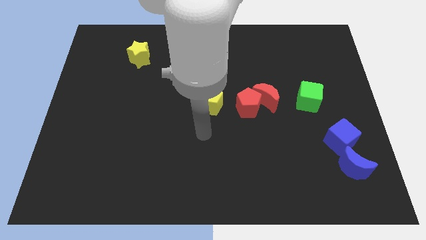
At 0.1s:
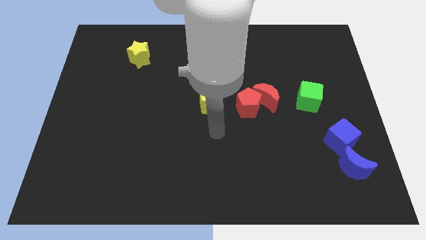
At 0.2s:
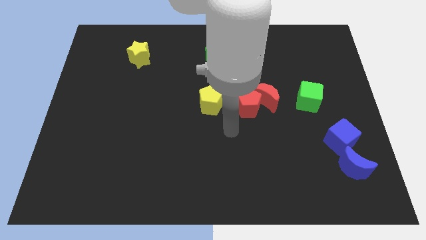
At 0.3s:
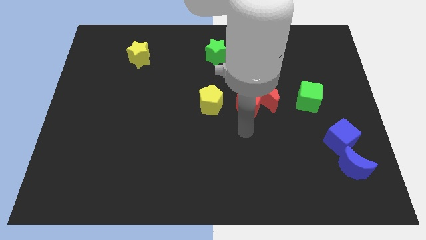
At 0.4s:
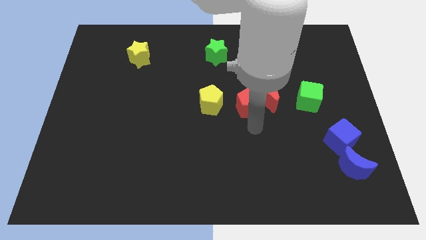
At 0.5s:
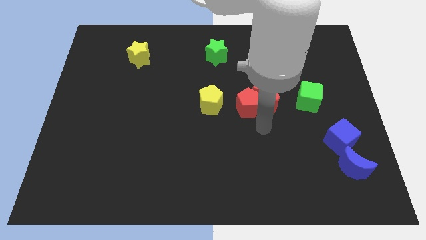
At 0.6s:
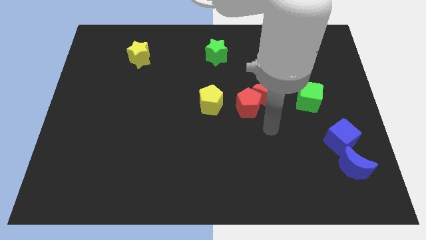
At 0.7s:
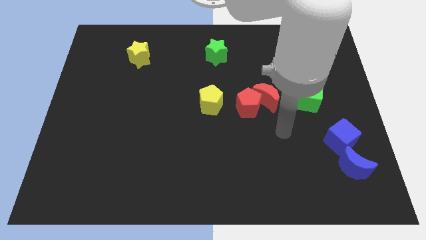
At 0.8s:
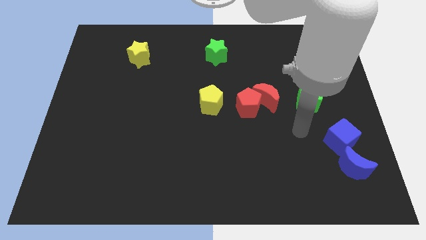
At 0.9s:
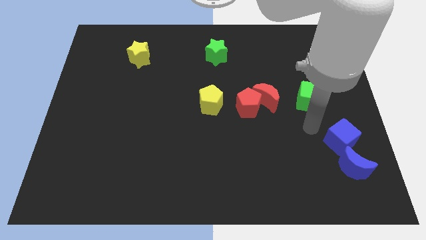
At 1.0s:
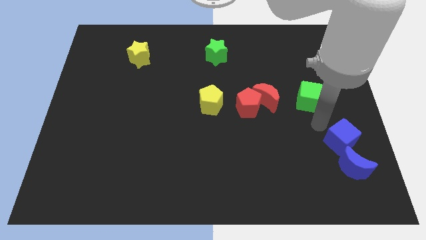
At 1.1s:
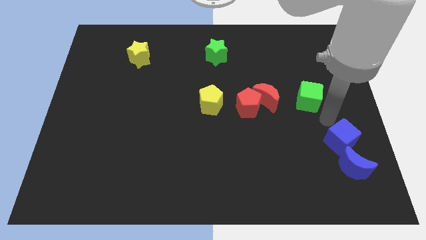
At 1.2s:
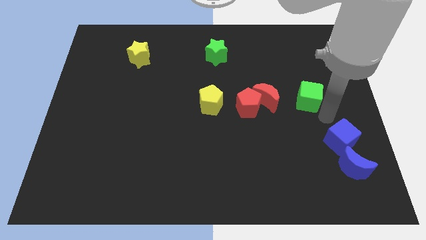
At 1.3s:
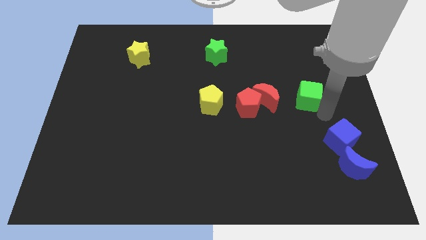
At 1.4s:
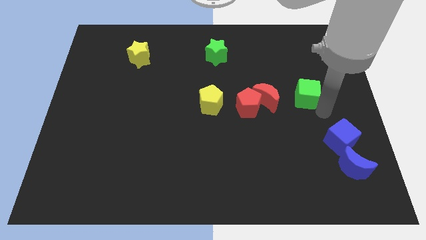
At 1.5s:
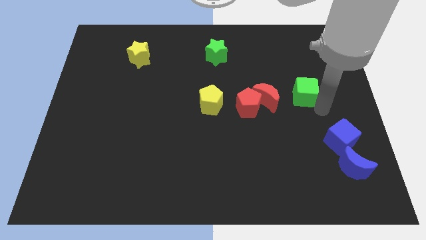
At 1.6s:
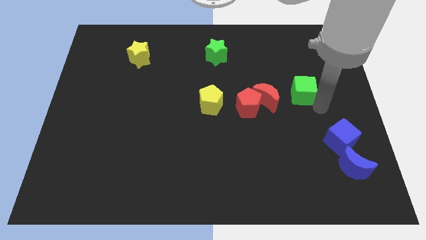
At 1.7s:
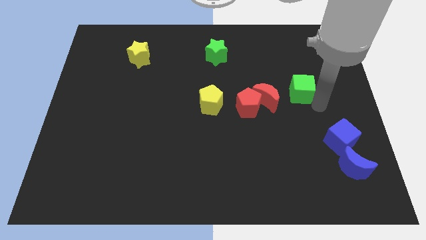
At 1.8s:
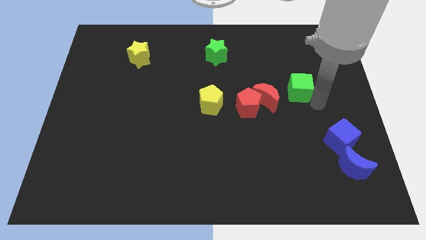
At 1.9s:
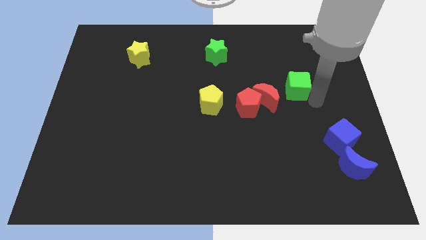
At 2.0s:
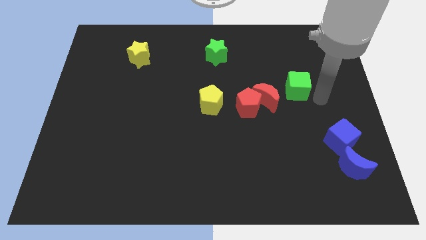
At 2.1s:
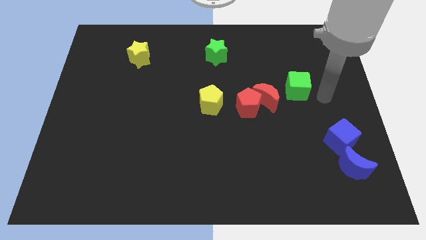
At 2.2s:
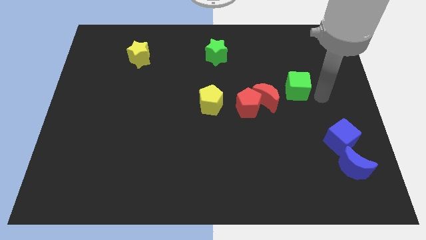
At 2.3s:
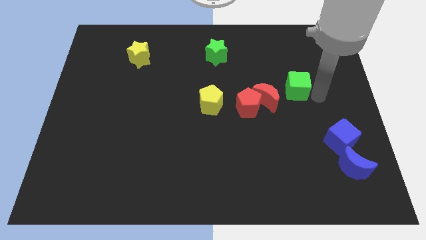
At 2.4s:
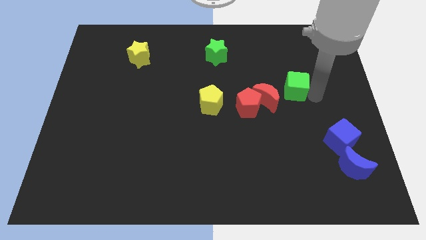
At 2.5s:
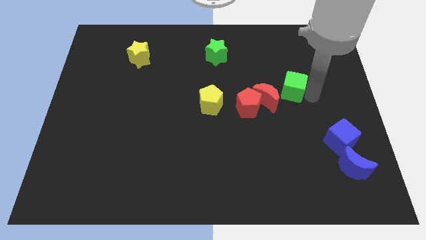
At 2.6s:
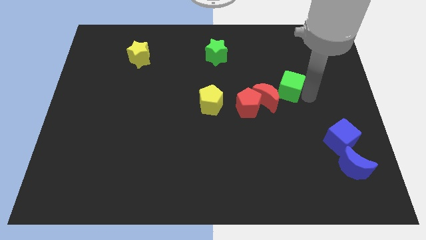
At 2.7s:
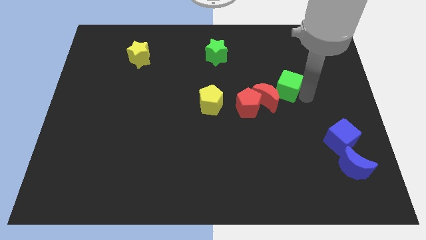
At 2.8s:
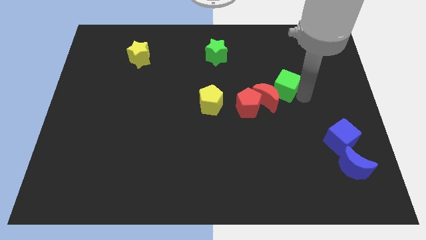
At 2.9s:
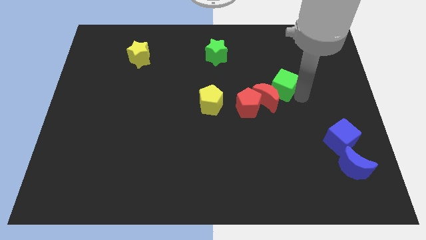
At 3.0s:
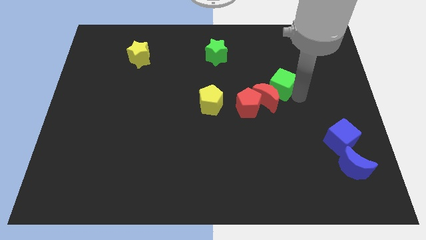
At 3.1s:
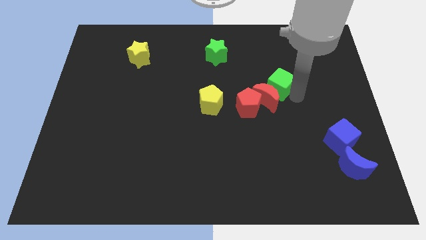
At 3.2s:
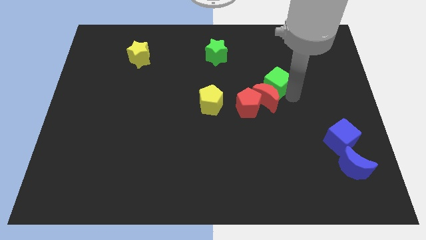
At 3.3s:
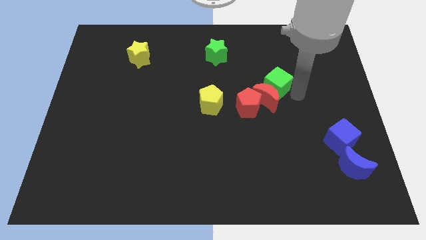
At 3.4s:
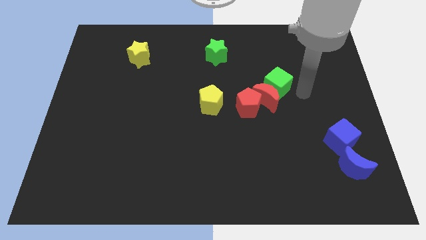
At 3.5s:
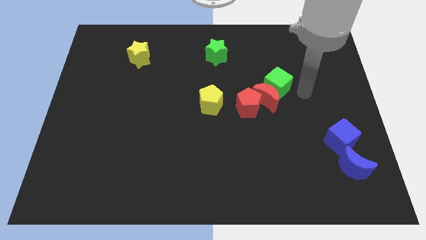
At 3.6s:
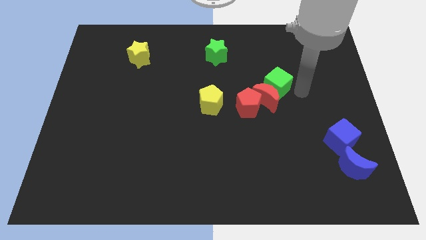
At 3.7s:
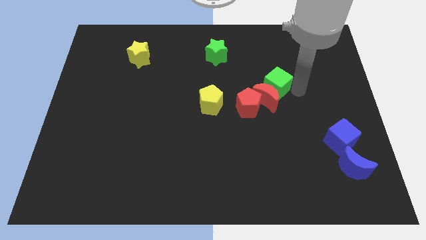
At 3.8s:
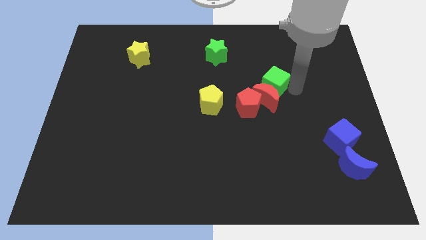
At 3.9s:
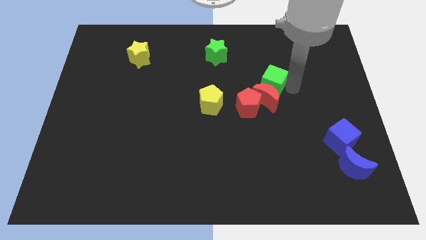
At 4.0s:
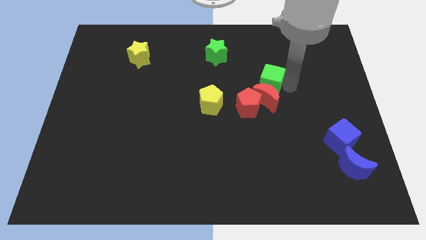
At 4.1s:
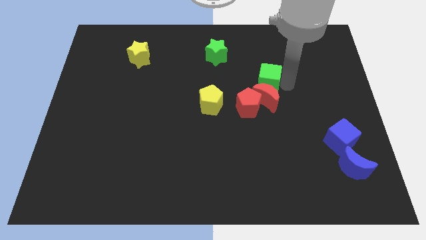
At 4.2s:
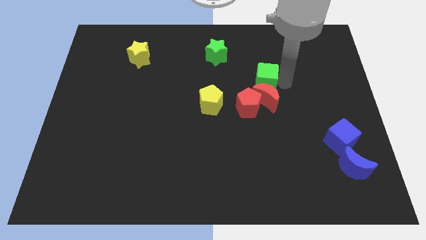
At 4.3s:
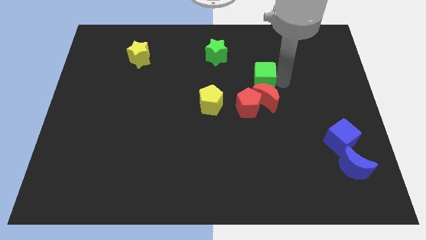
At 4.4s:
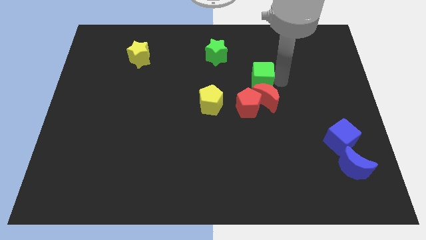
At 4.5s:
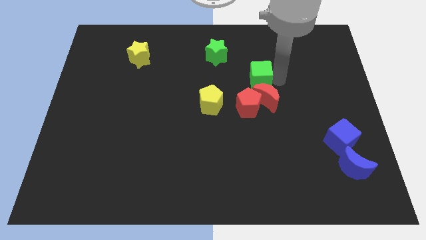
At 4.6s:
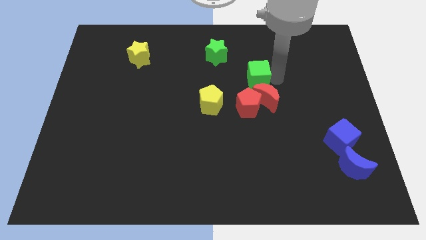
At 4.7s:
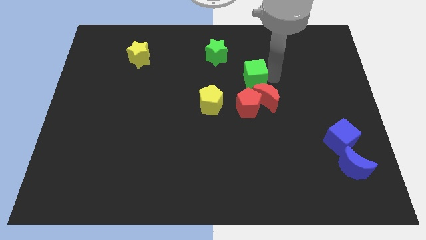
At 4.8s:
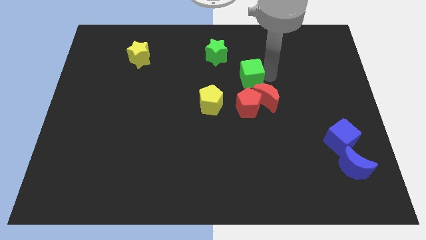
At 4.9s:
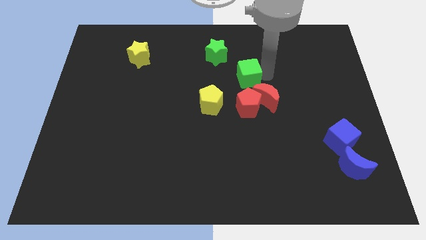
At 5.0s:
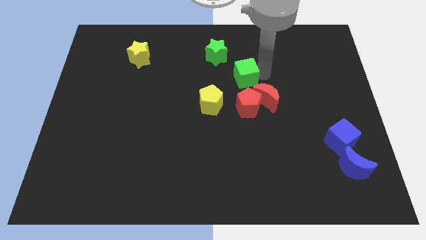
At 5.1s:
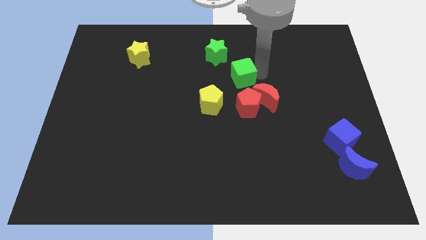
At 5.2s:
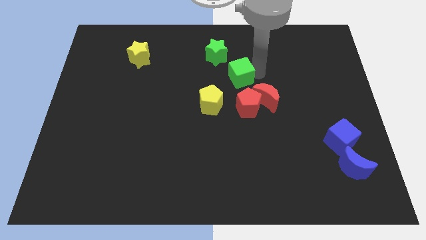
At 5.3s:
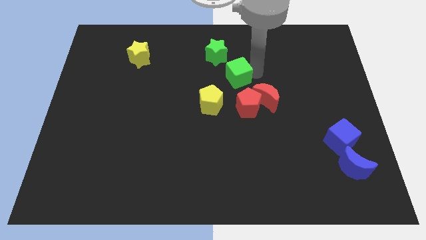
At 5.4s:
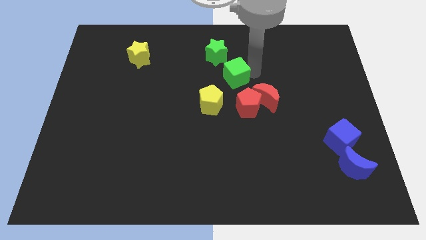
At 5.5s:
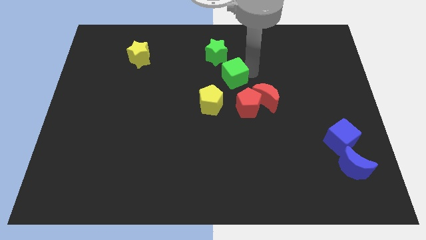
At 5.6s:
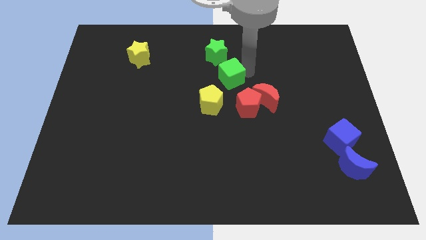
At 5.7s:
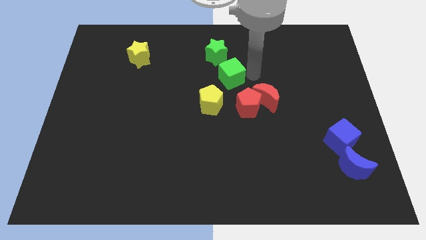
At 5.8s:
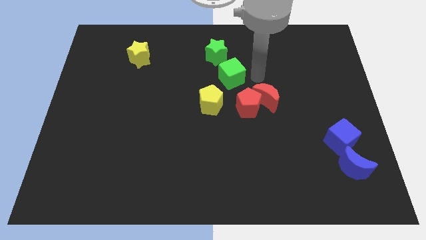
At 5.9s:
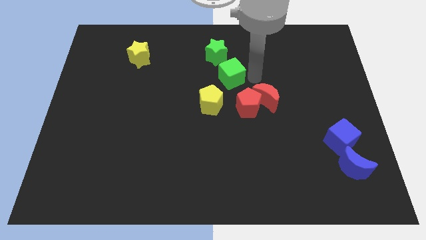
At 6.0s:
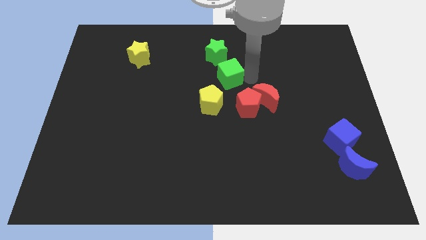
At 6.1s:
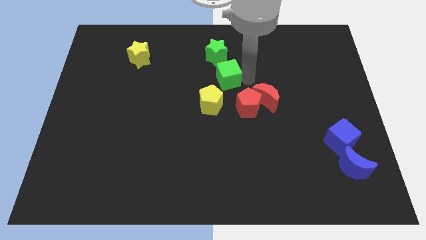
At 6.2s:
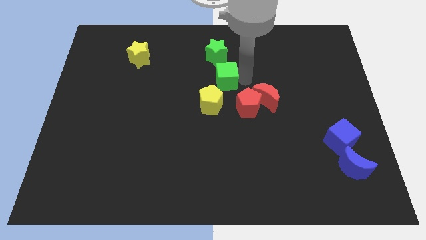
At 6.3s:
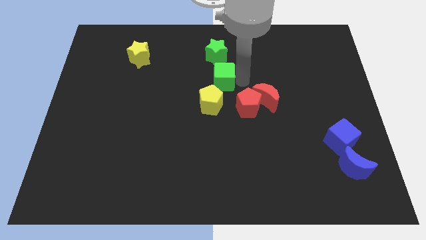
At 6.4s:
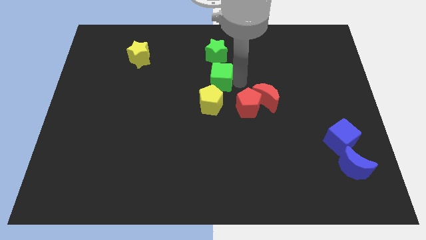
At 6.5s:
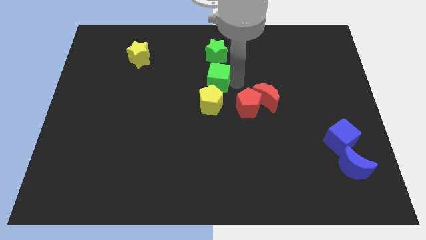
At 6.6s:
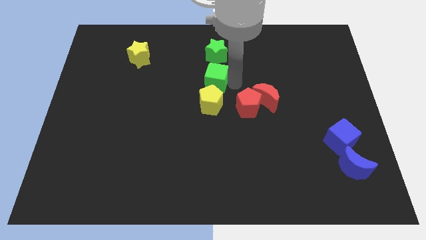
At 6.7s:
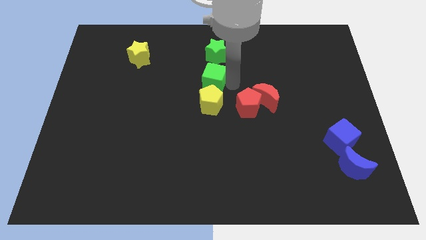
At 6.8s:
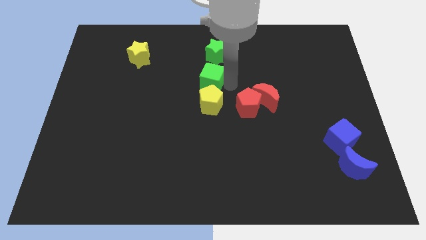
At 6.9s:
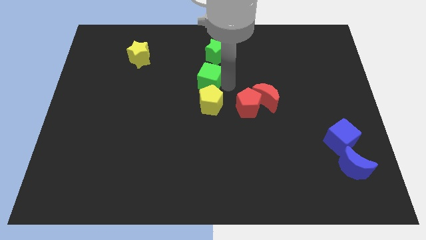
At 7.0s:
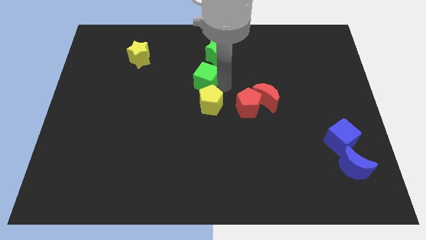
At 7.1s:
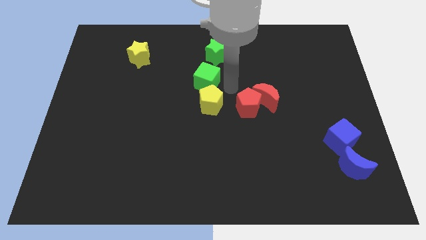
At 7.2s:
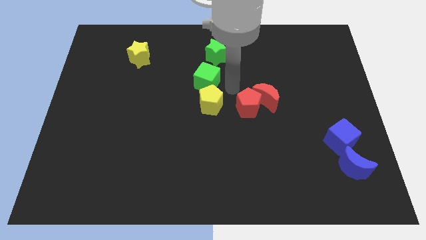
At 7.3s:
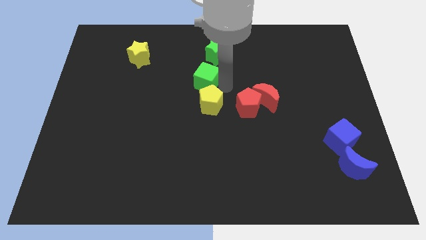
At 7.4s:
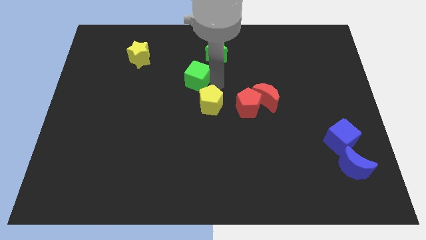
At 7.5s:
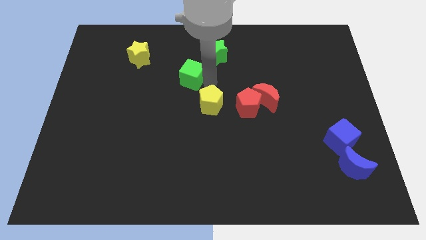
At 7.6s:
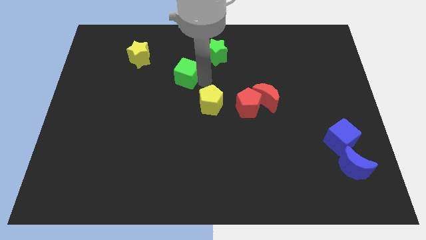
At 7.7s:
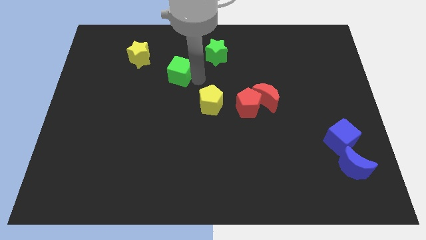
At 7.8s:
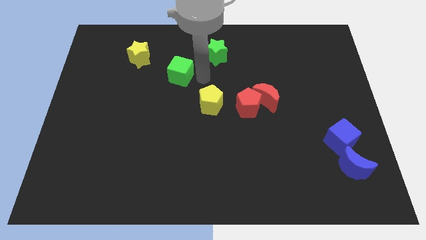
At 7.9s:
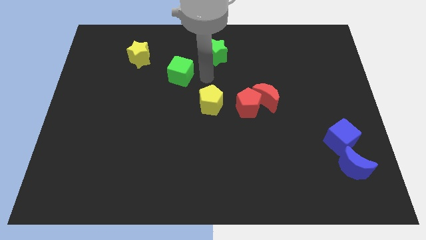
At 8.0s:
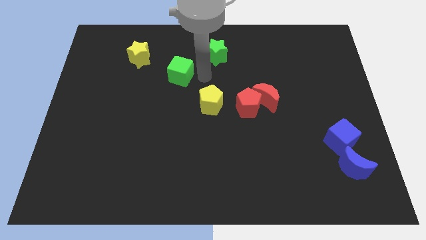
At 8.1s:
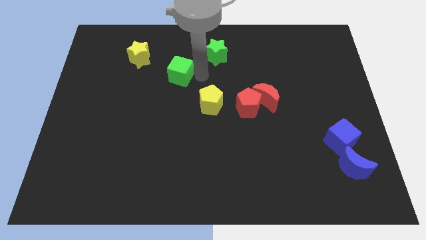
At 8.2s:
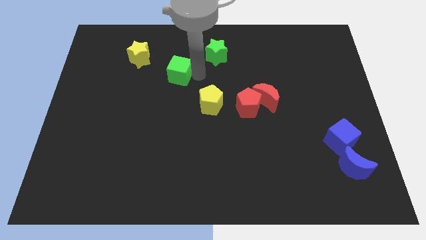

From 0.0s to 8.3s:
move the green cube to the bottom right of the yellow star
